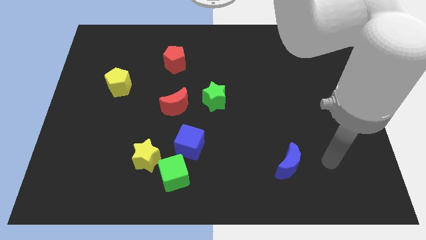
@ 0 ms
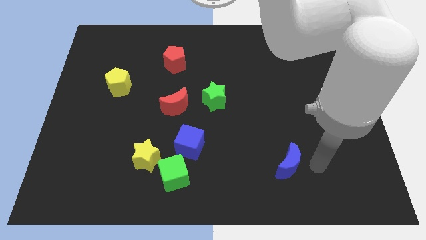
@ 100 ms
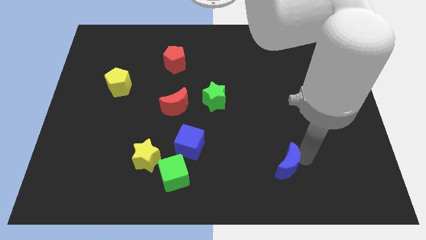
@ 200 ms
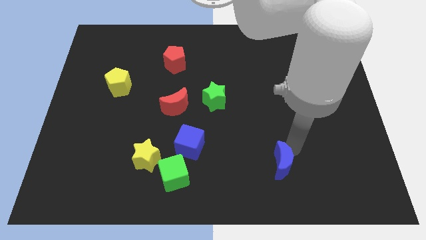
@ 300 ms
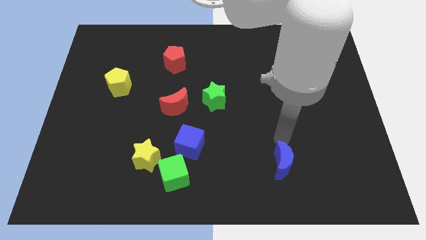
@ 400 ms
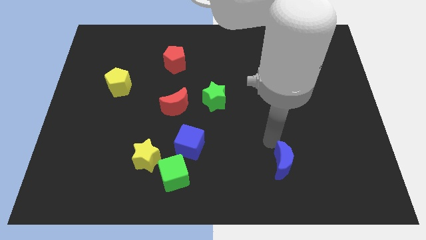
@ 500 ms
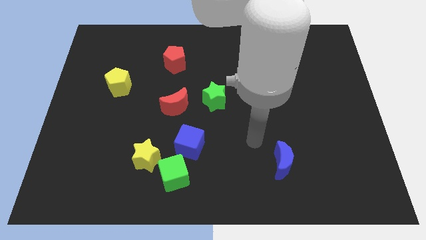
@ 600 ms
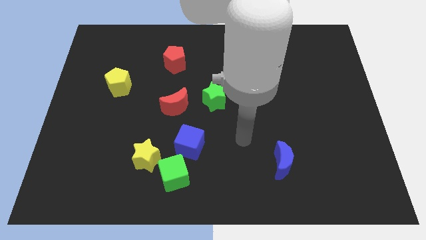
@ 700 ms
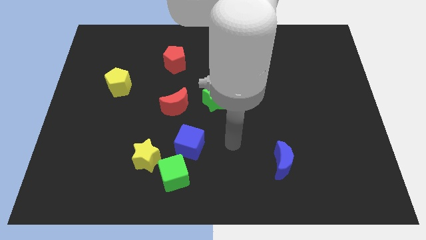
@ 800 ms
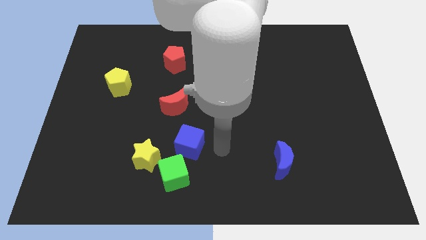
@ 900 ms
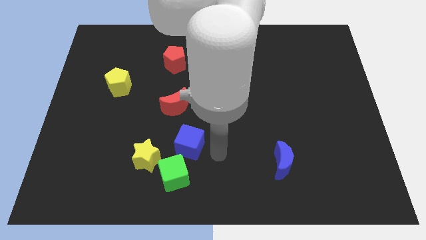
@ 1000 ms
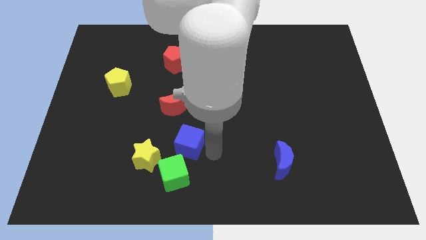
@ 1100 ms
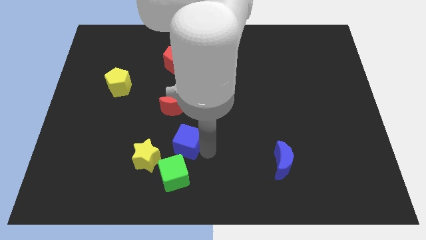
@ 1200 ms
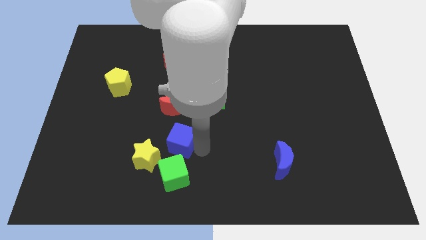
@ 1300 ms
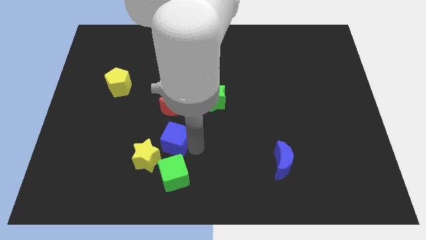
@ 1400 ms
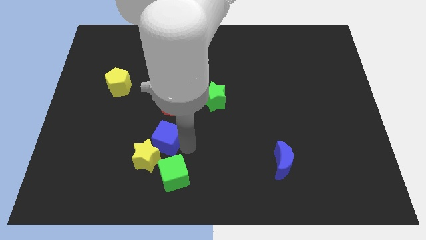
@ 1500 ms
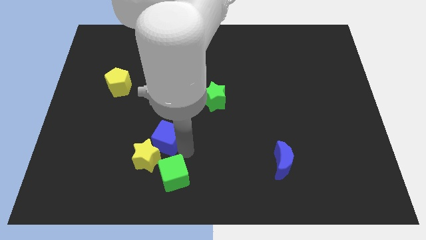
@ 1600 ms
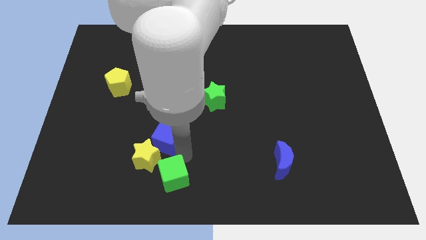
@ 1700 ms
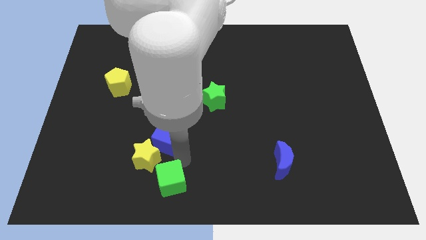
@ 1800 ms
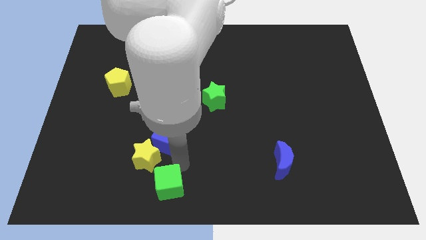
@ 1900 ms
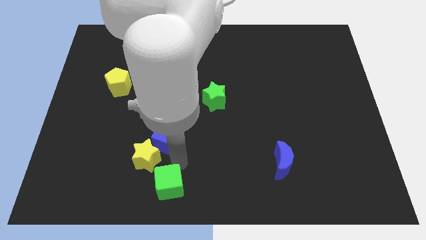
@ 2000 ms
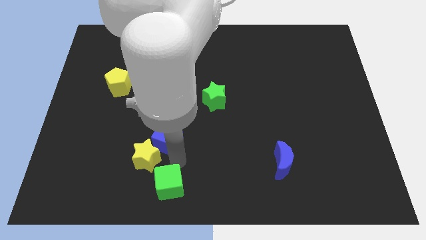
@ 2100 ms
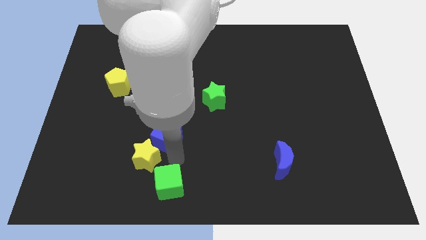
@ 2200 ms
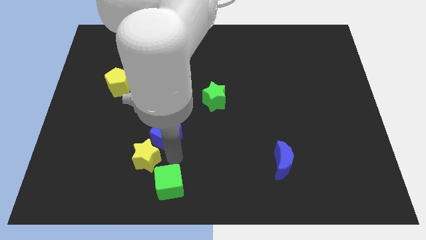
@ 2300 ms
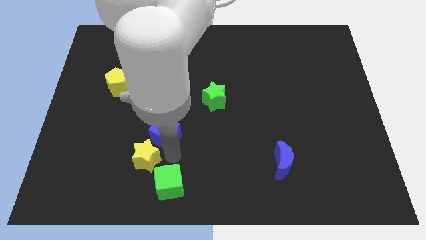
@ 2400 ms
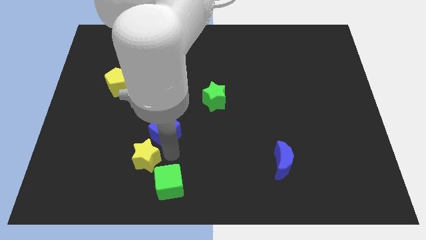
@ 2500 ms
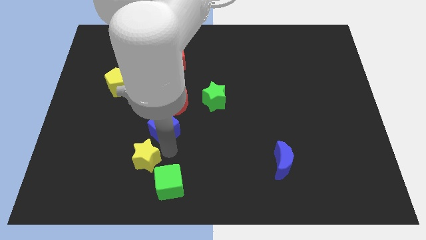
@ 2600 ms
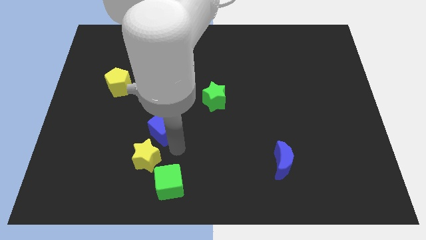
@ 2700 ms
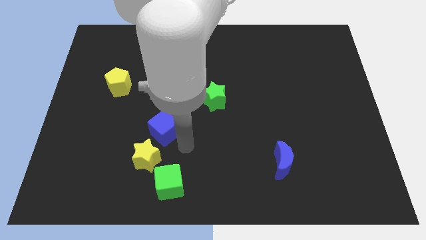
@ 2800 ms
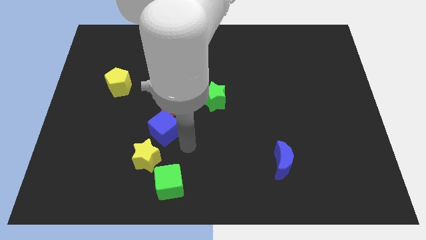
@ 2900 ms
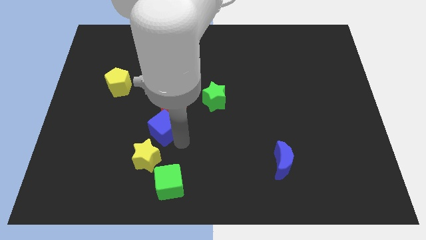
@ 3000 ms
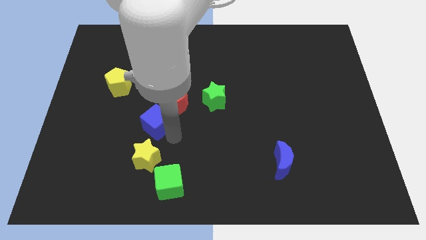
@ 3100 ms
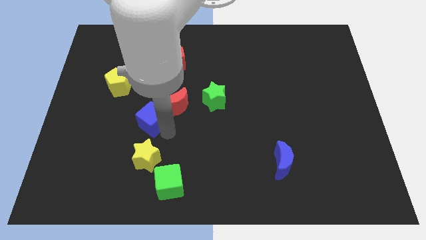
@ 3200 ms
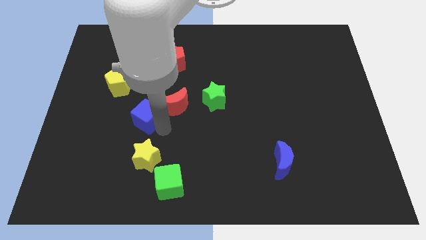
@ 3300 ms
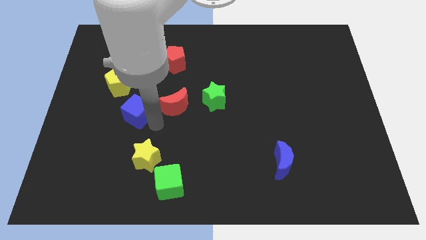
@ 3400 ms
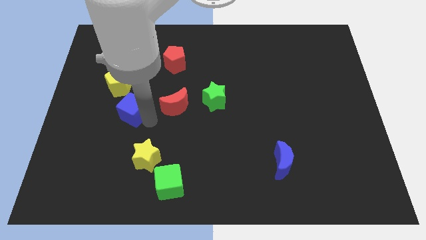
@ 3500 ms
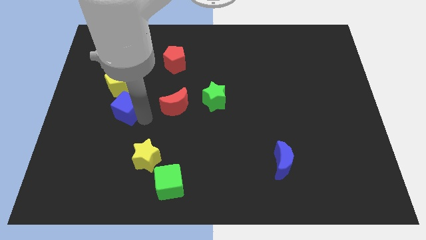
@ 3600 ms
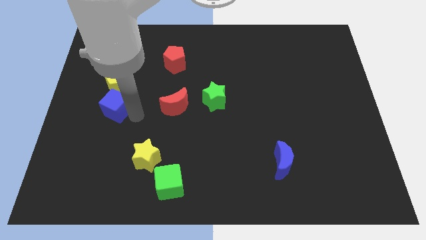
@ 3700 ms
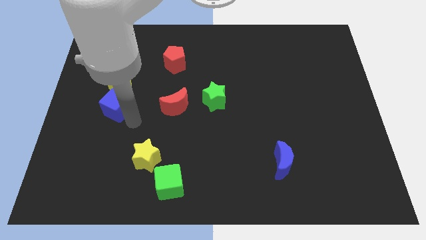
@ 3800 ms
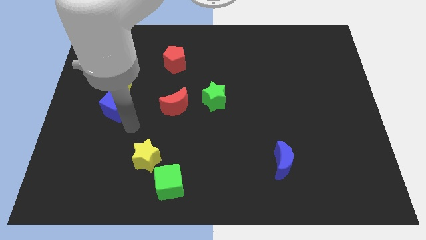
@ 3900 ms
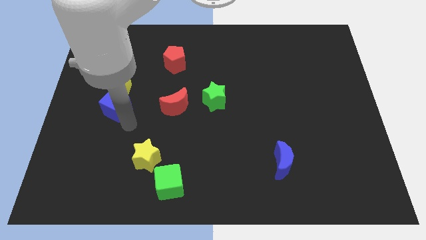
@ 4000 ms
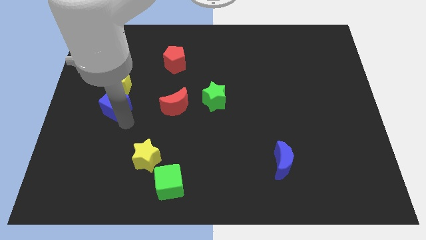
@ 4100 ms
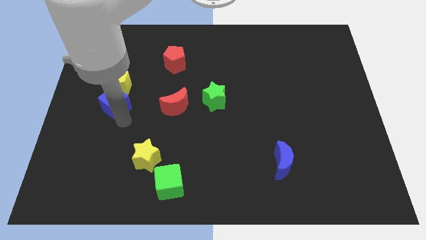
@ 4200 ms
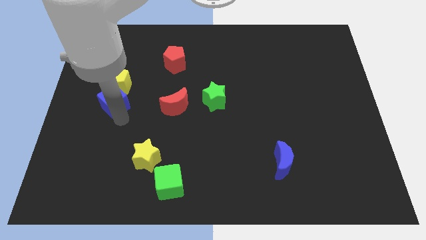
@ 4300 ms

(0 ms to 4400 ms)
push the blue cube upwards and then left

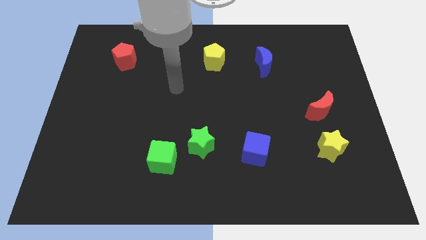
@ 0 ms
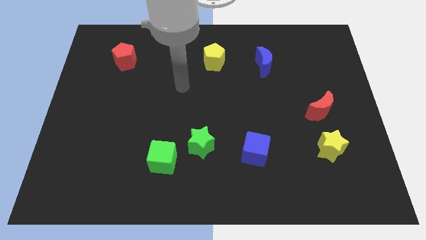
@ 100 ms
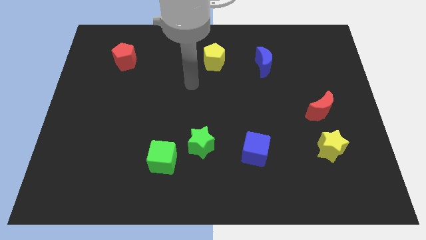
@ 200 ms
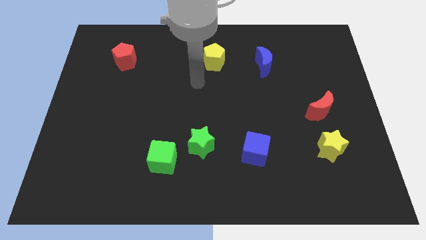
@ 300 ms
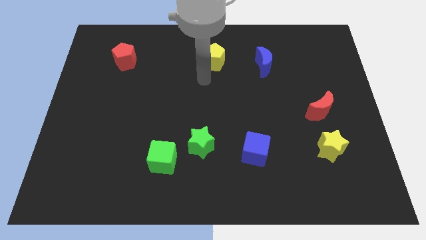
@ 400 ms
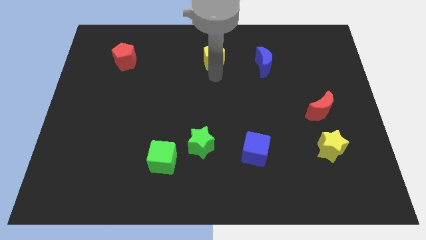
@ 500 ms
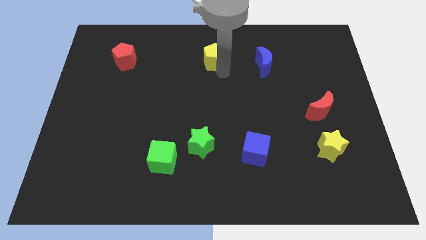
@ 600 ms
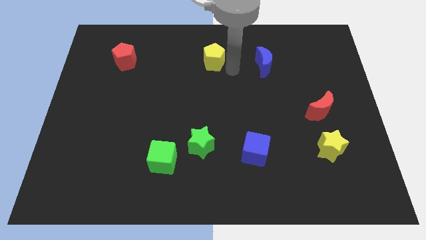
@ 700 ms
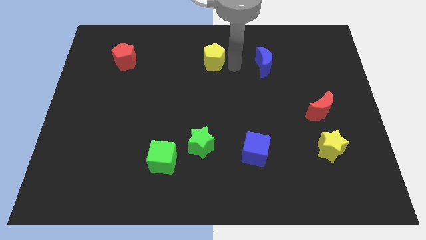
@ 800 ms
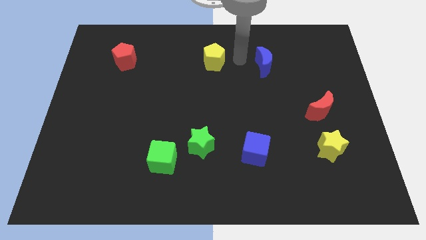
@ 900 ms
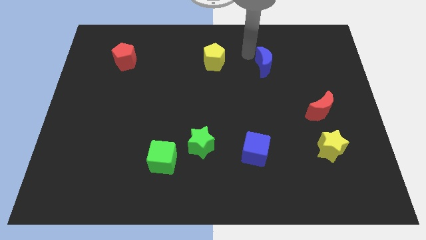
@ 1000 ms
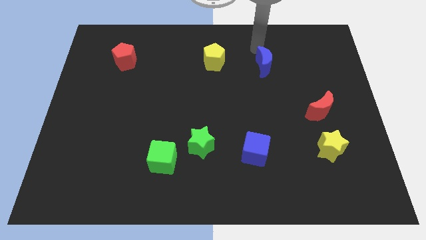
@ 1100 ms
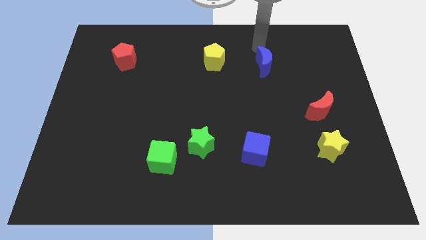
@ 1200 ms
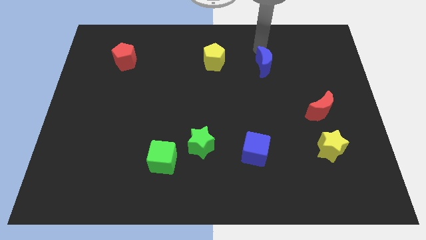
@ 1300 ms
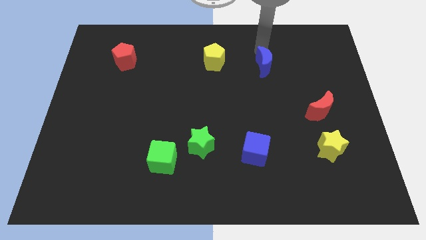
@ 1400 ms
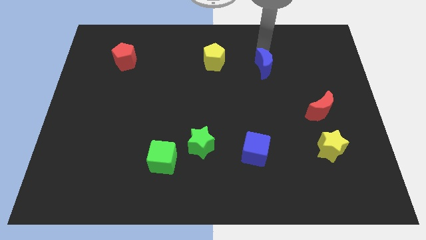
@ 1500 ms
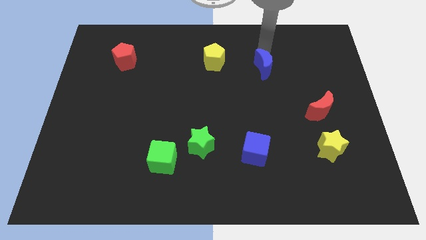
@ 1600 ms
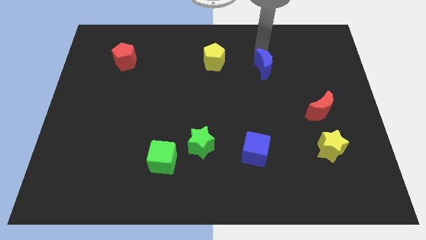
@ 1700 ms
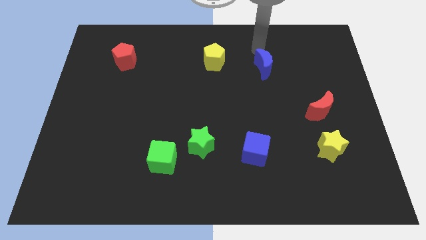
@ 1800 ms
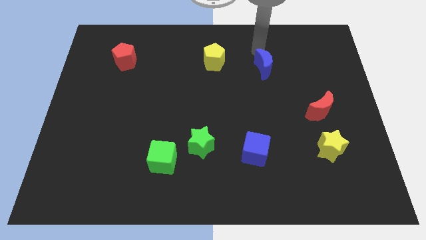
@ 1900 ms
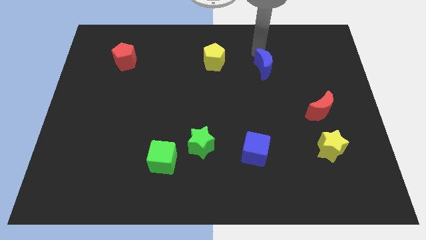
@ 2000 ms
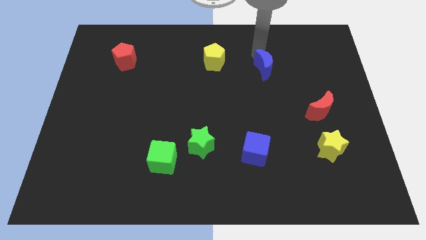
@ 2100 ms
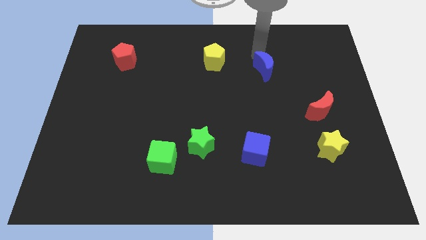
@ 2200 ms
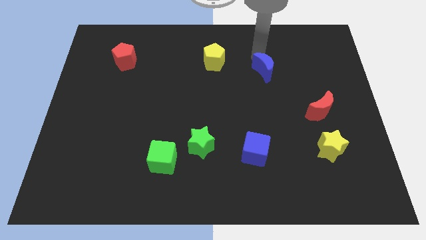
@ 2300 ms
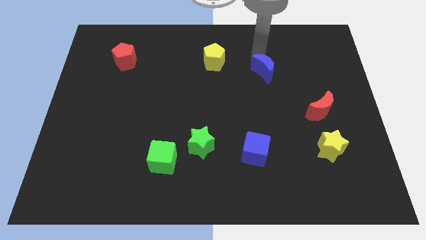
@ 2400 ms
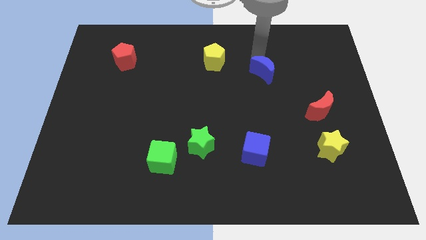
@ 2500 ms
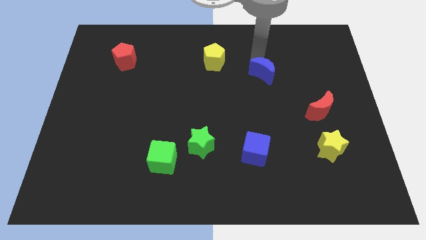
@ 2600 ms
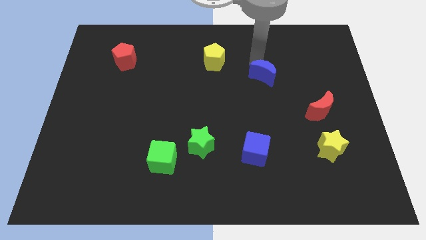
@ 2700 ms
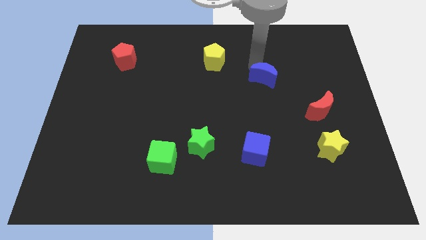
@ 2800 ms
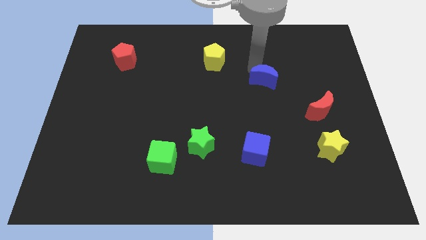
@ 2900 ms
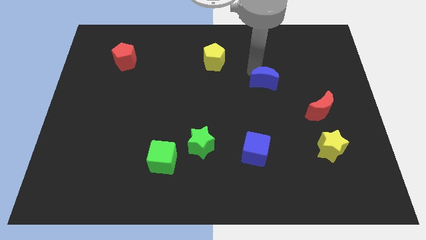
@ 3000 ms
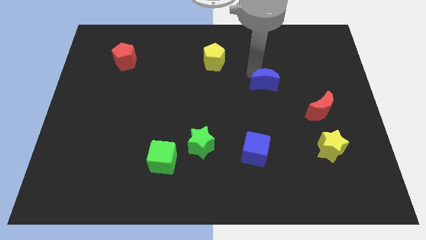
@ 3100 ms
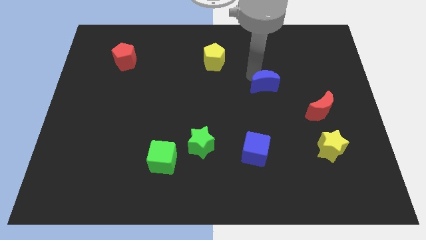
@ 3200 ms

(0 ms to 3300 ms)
push the blue moon a bit down

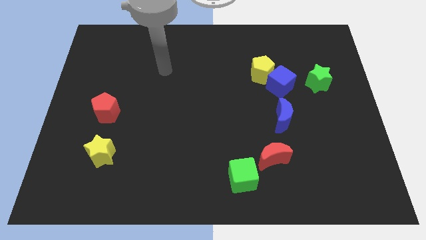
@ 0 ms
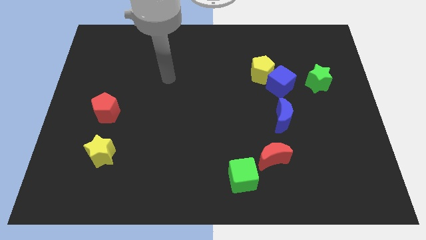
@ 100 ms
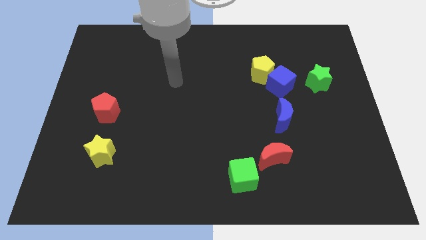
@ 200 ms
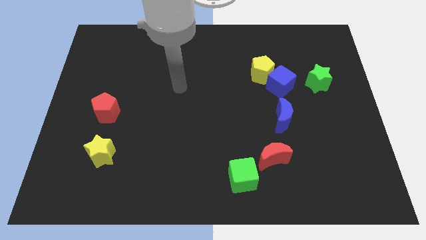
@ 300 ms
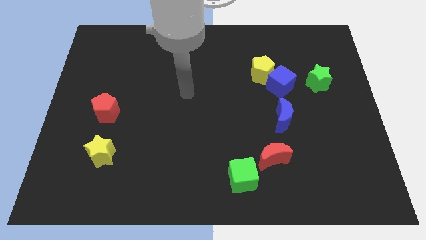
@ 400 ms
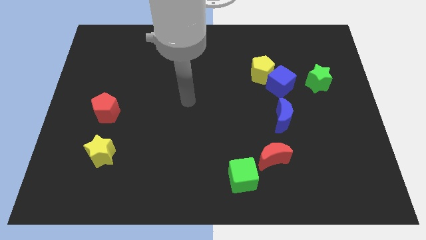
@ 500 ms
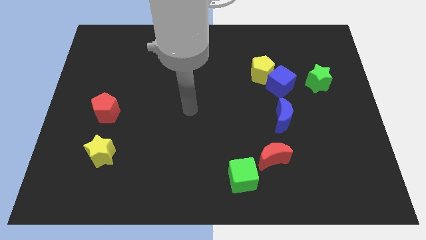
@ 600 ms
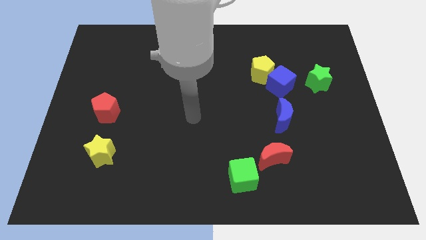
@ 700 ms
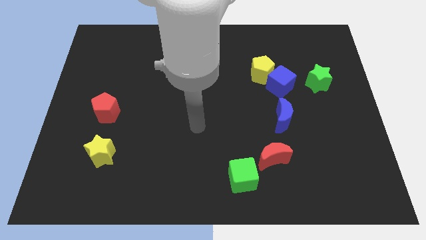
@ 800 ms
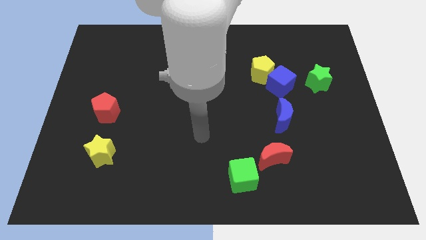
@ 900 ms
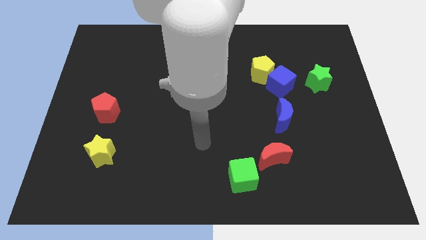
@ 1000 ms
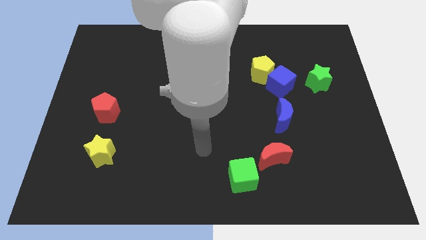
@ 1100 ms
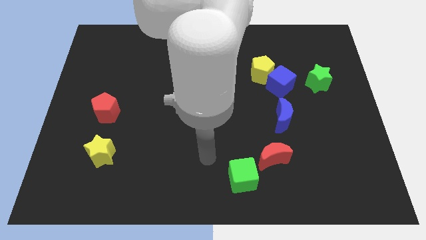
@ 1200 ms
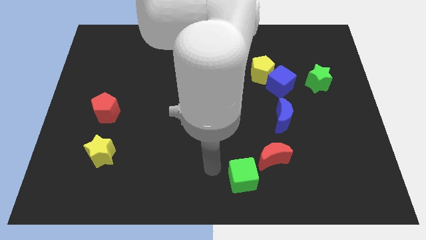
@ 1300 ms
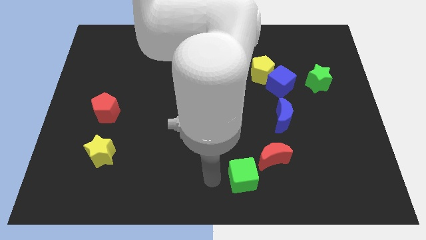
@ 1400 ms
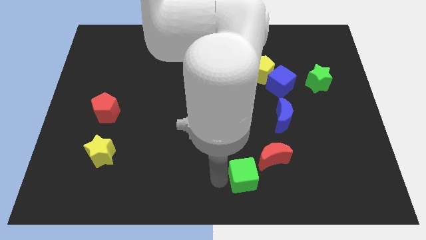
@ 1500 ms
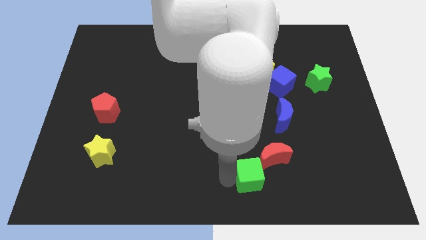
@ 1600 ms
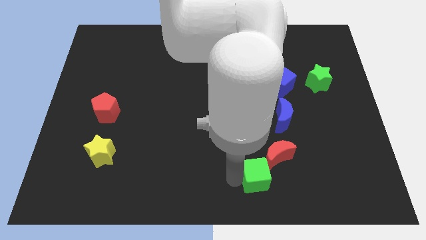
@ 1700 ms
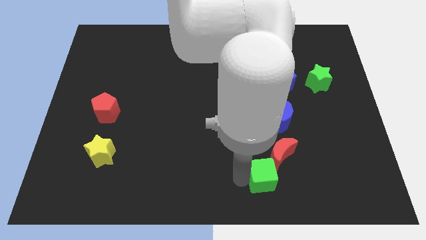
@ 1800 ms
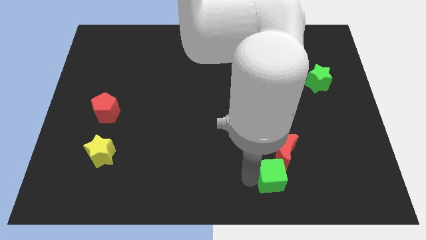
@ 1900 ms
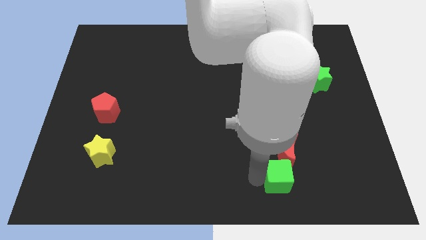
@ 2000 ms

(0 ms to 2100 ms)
push the green cube right a little bit
